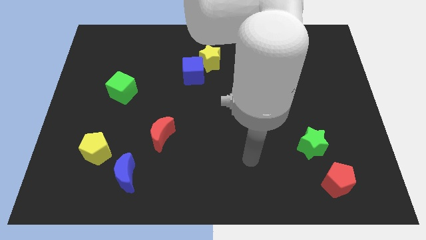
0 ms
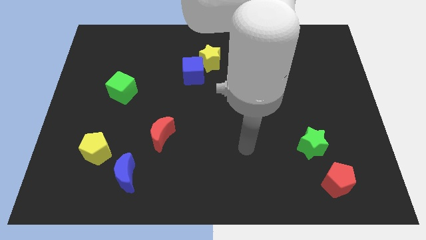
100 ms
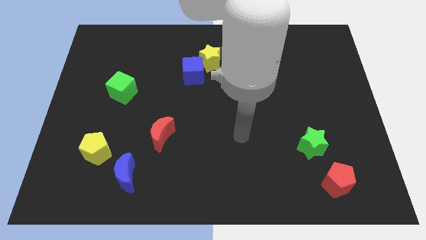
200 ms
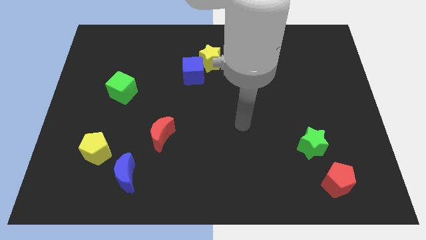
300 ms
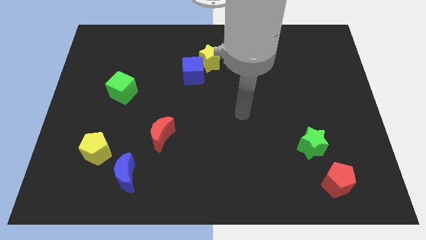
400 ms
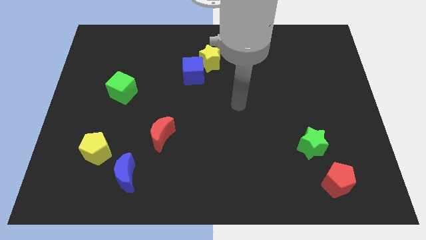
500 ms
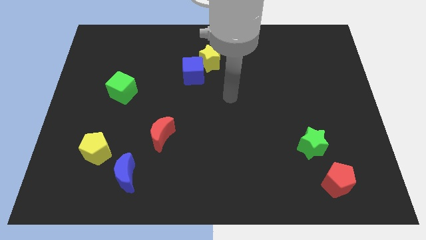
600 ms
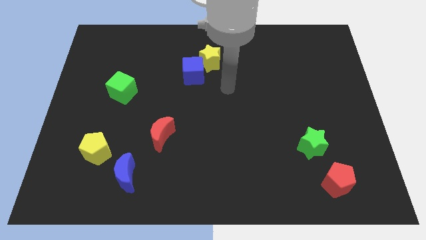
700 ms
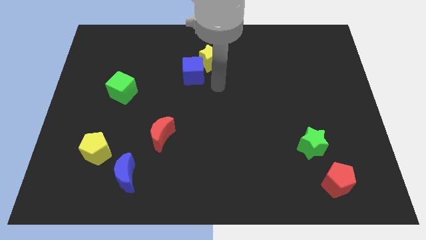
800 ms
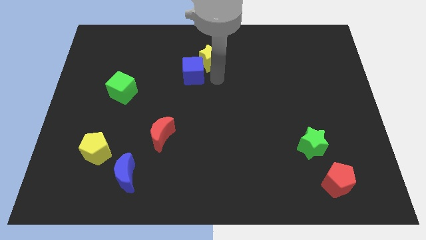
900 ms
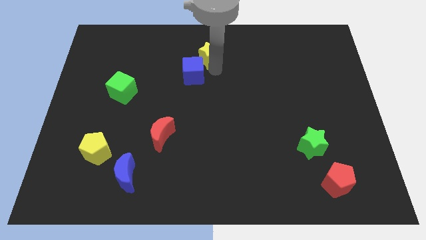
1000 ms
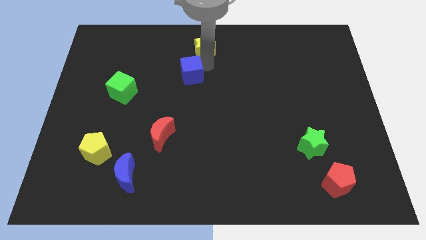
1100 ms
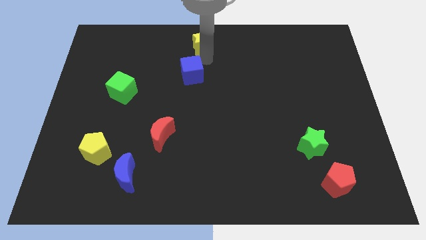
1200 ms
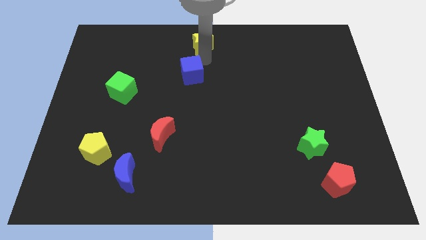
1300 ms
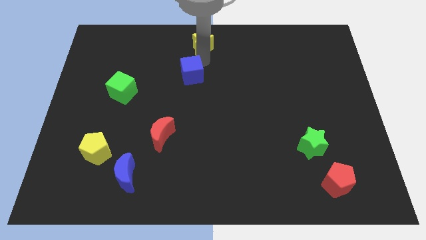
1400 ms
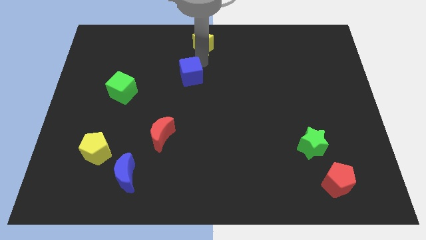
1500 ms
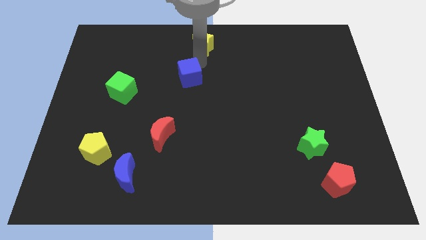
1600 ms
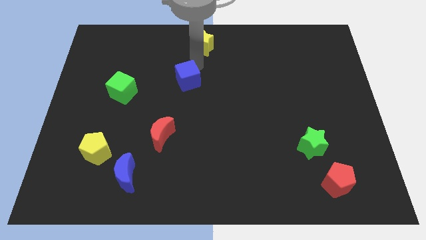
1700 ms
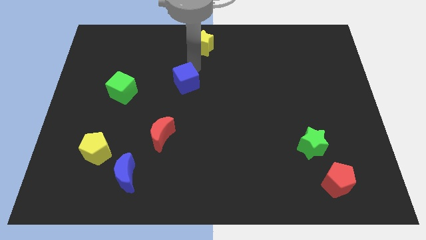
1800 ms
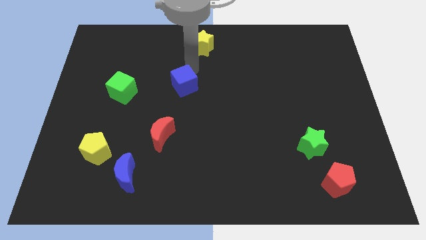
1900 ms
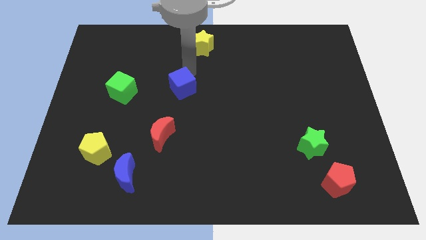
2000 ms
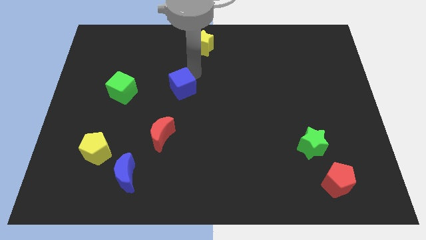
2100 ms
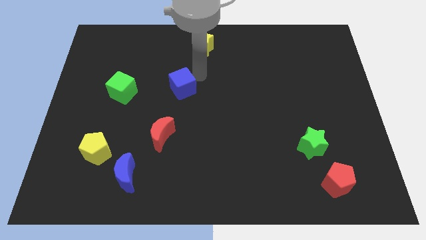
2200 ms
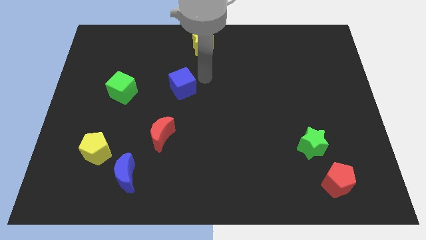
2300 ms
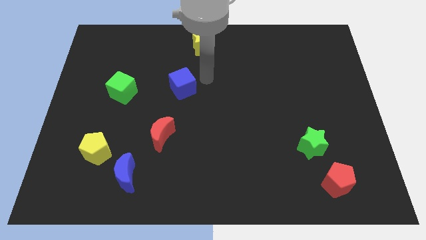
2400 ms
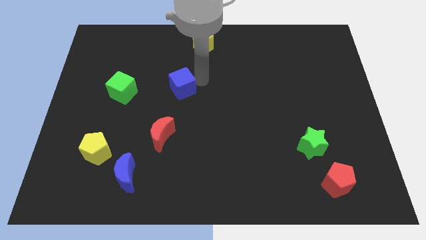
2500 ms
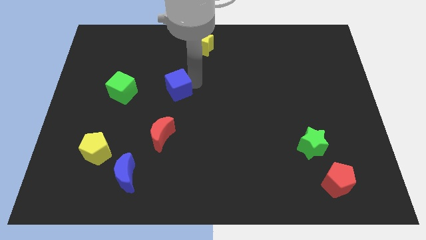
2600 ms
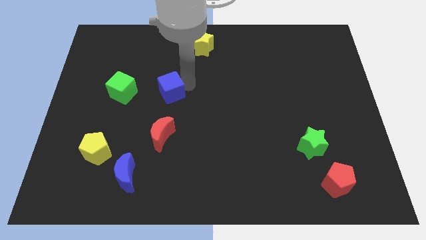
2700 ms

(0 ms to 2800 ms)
slightly slide the blue cube down and left

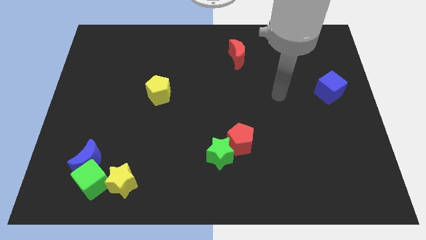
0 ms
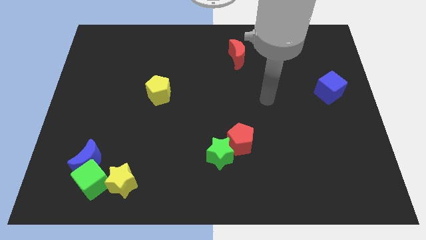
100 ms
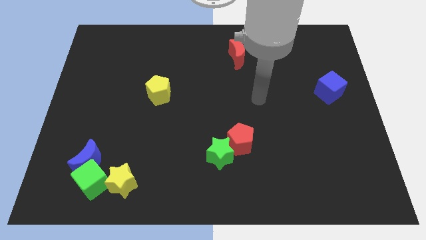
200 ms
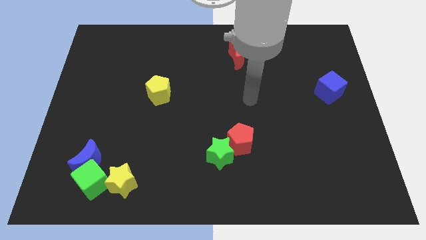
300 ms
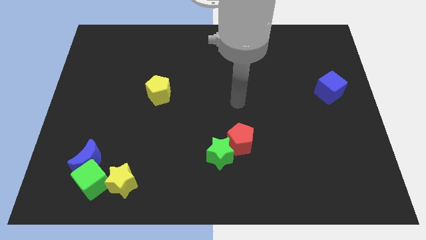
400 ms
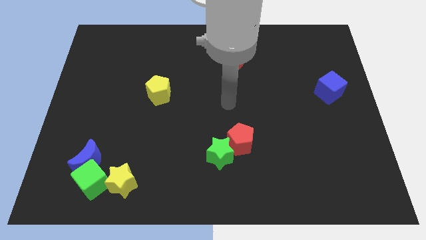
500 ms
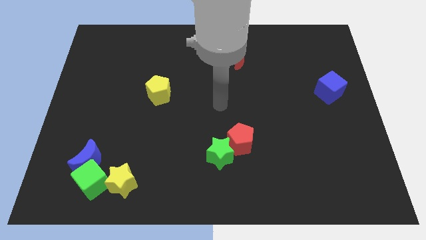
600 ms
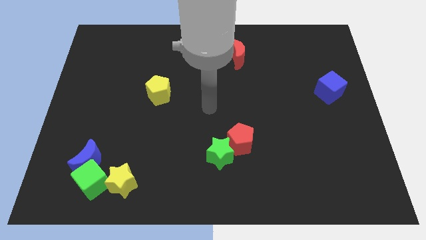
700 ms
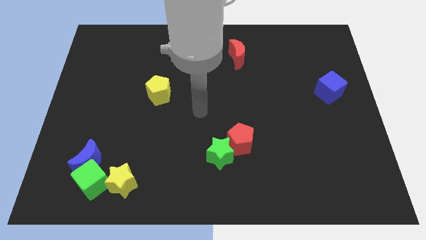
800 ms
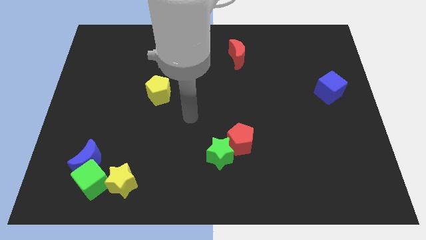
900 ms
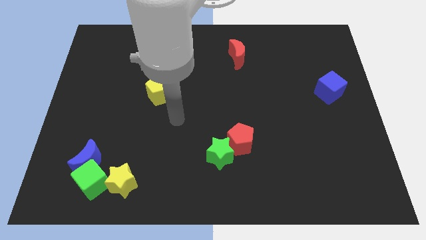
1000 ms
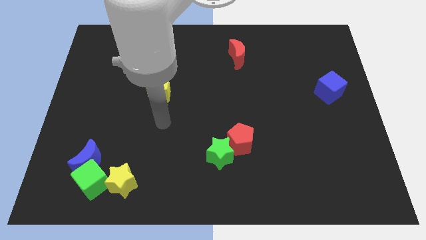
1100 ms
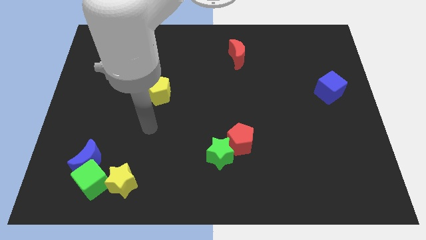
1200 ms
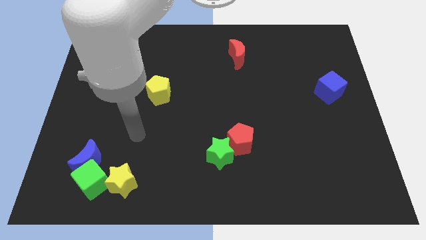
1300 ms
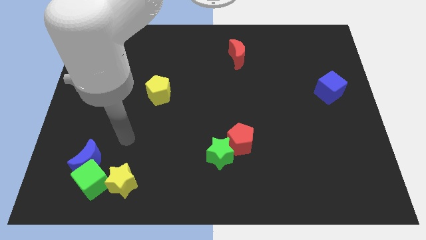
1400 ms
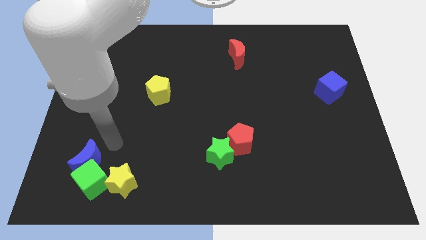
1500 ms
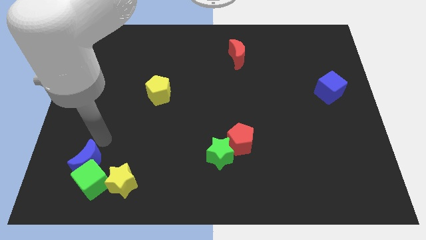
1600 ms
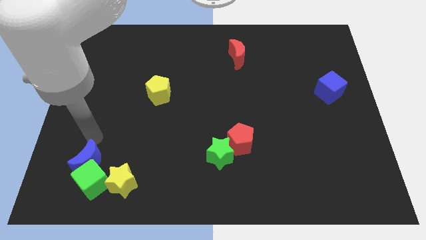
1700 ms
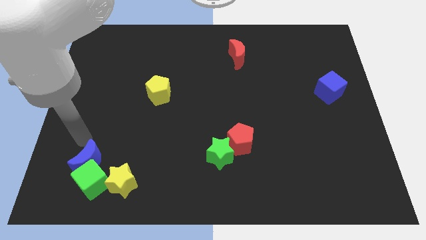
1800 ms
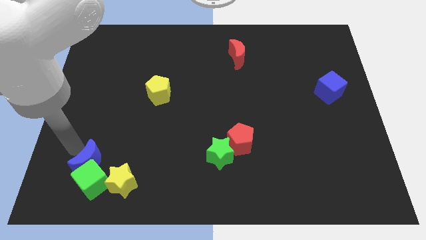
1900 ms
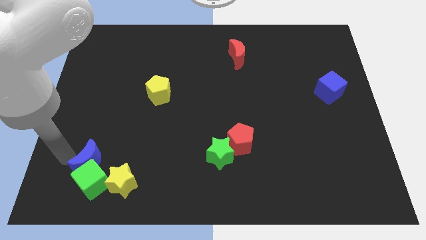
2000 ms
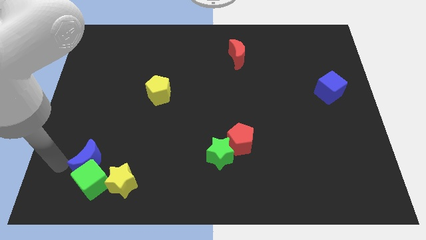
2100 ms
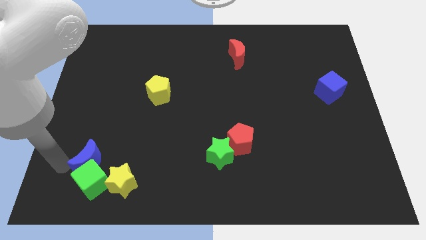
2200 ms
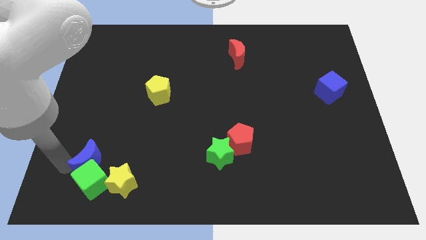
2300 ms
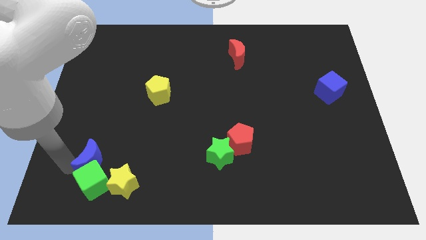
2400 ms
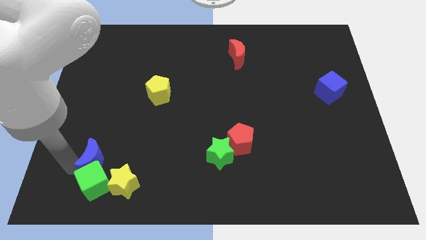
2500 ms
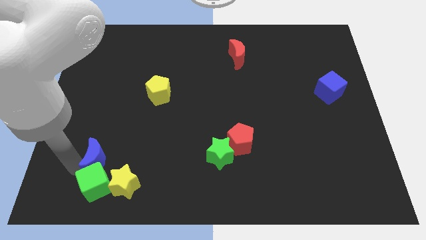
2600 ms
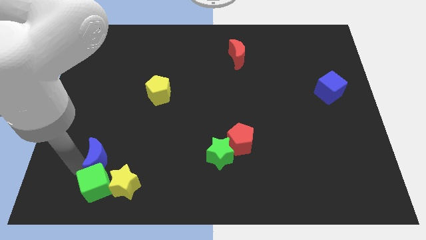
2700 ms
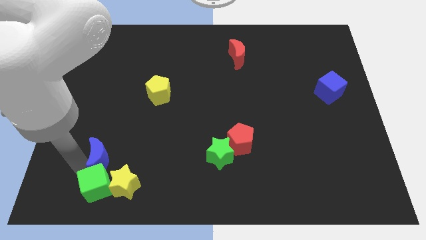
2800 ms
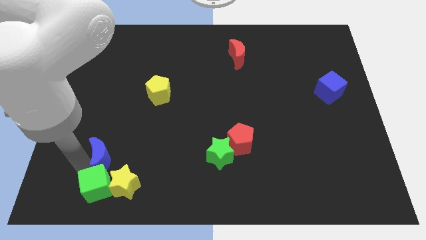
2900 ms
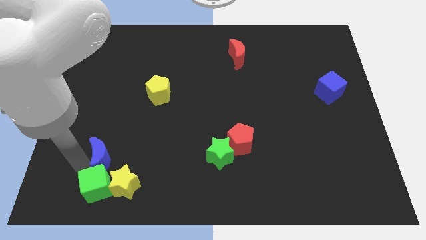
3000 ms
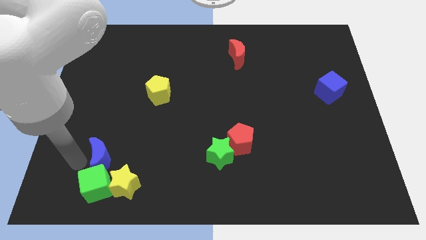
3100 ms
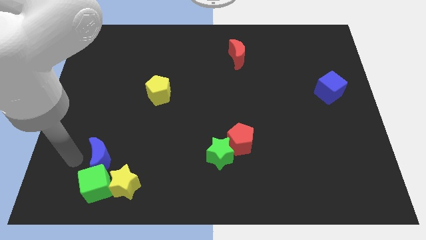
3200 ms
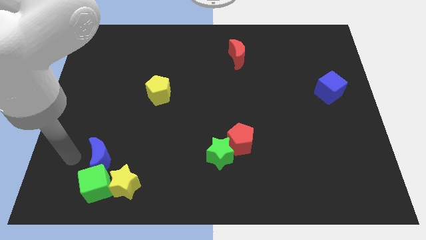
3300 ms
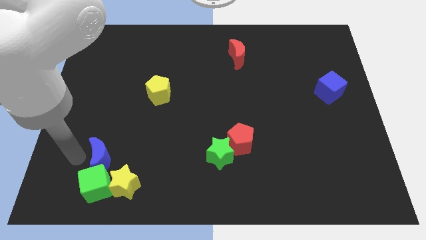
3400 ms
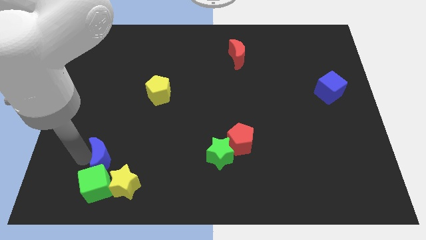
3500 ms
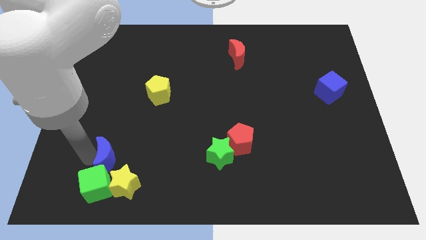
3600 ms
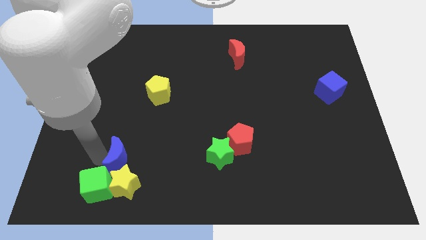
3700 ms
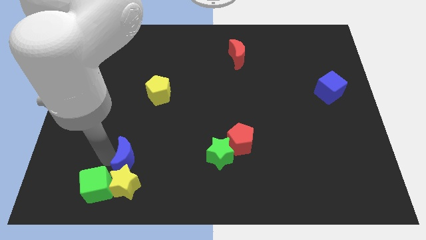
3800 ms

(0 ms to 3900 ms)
push the blue moon a bit right

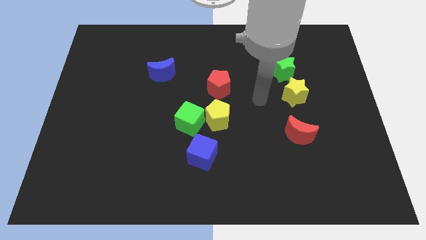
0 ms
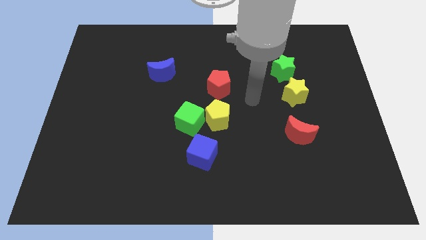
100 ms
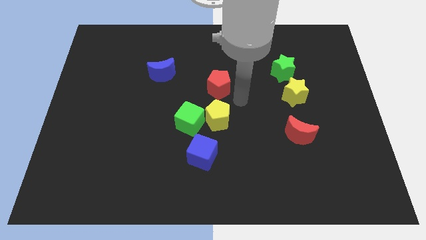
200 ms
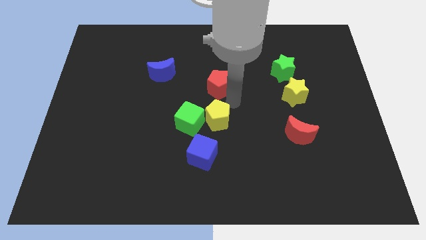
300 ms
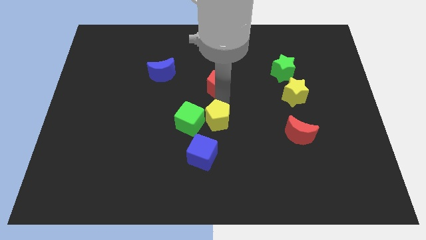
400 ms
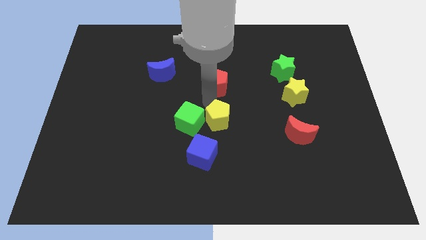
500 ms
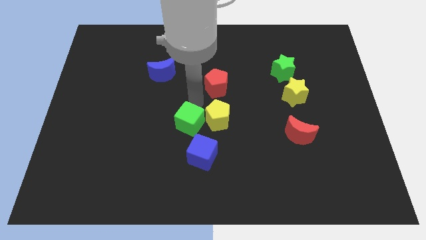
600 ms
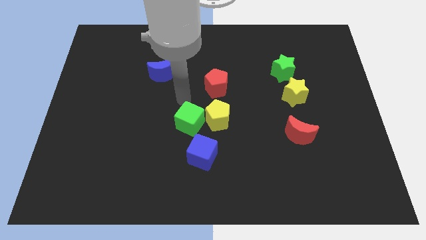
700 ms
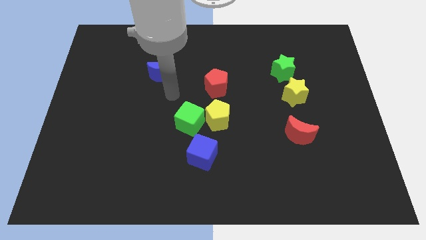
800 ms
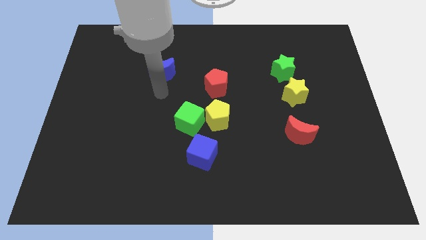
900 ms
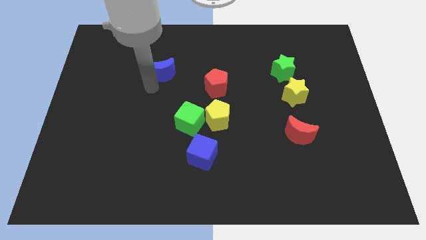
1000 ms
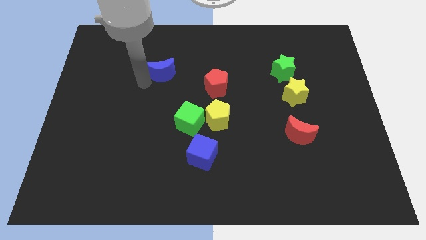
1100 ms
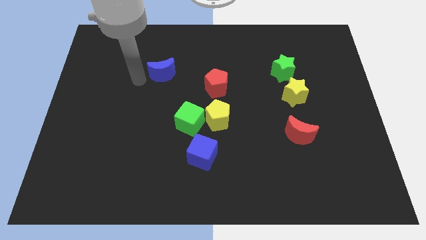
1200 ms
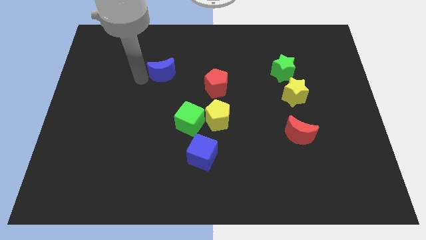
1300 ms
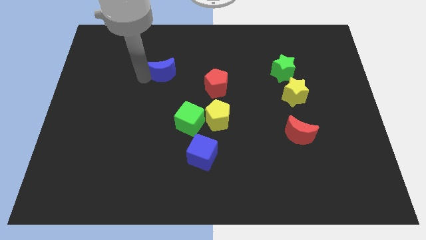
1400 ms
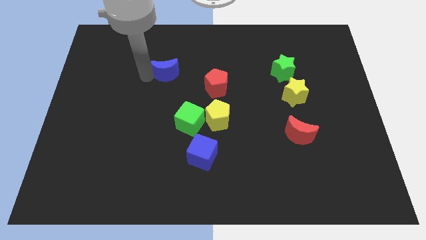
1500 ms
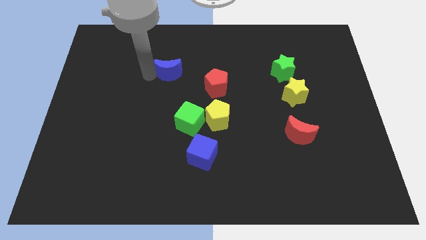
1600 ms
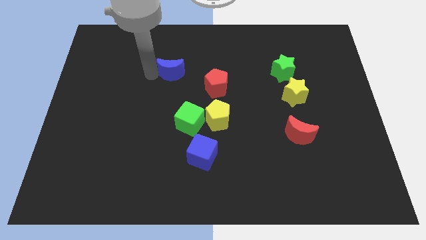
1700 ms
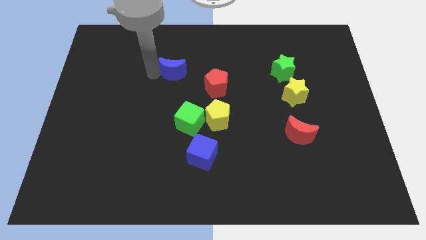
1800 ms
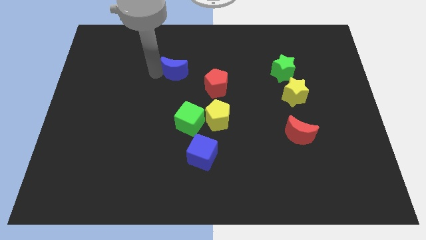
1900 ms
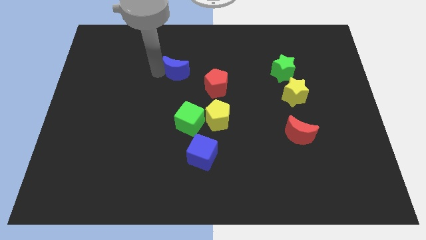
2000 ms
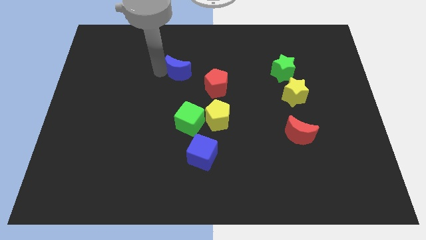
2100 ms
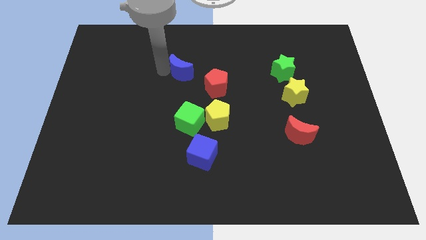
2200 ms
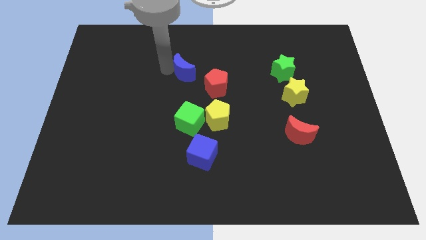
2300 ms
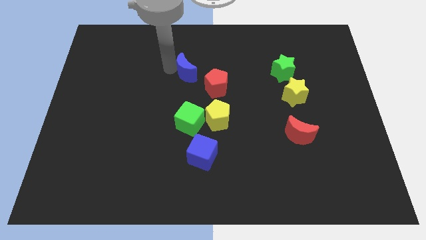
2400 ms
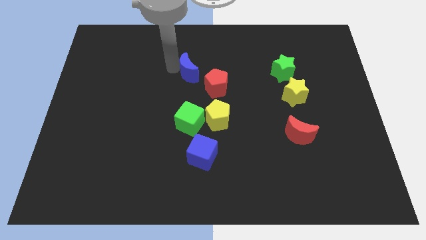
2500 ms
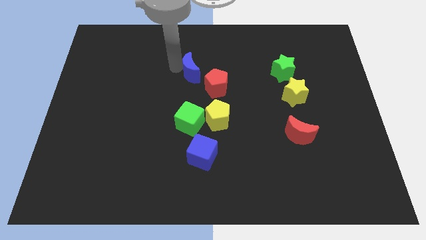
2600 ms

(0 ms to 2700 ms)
slightly slide the blue moon right
